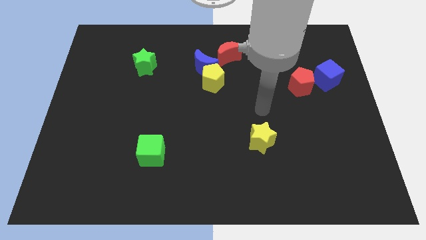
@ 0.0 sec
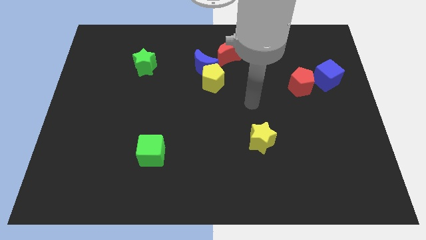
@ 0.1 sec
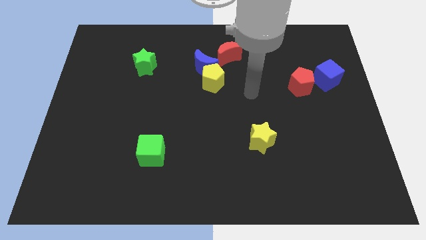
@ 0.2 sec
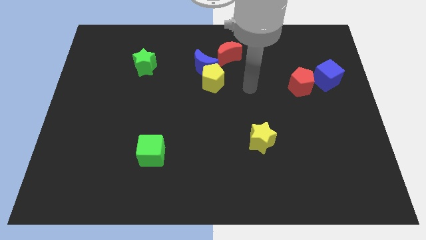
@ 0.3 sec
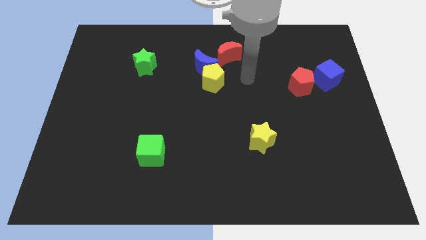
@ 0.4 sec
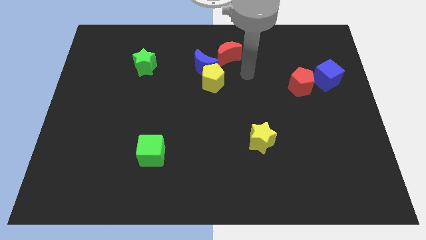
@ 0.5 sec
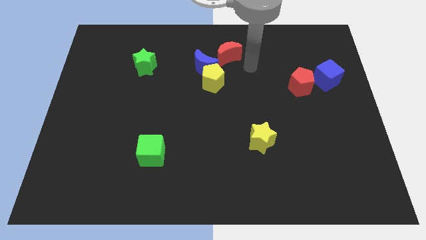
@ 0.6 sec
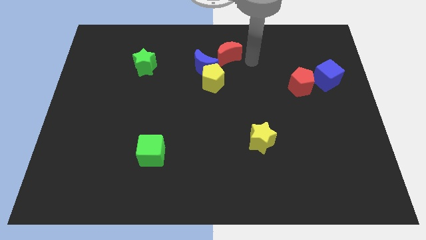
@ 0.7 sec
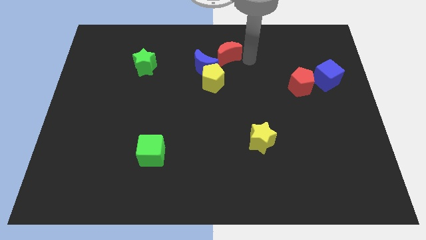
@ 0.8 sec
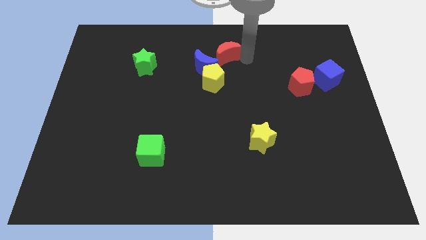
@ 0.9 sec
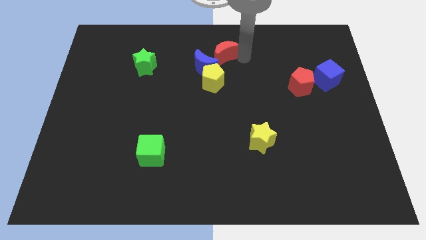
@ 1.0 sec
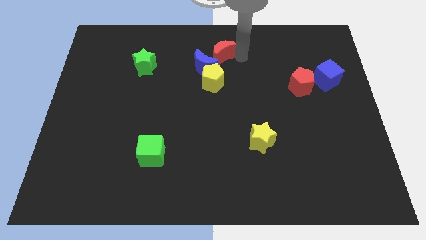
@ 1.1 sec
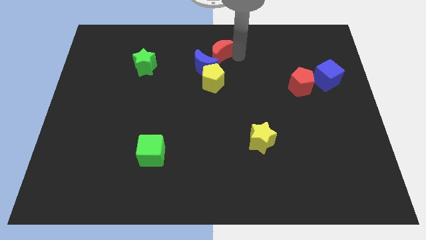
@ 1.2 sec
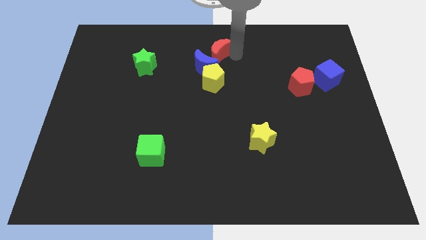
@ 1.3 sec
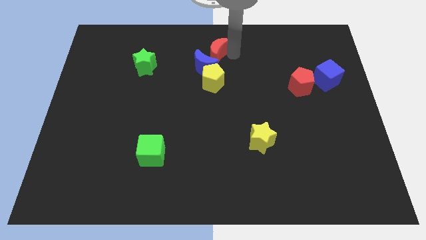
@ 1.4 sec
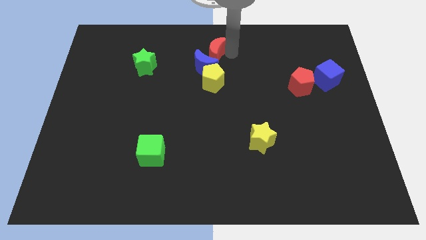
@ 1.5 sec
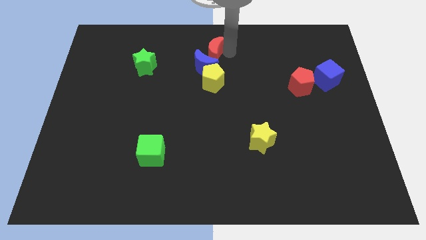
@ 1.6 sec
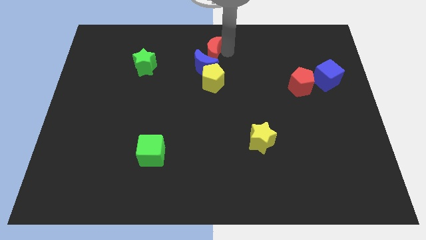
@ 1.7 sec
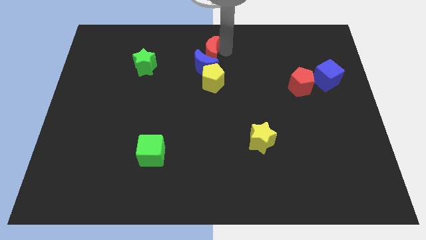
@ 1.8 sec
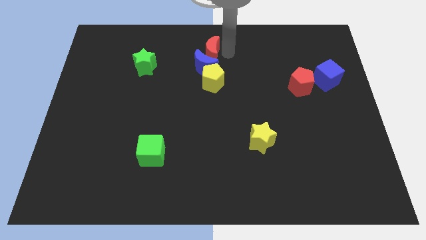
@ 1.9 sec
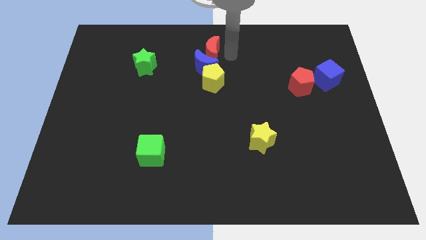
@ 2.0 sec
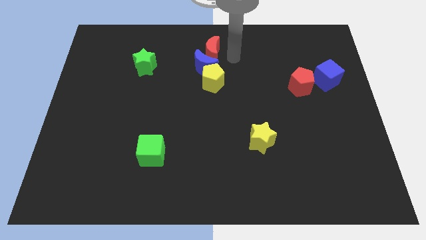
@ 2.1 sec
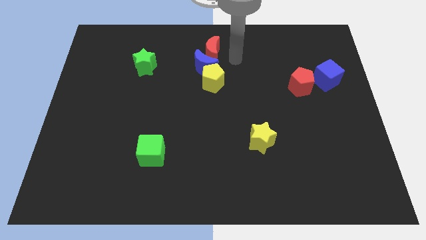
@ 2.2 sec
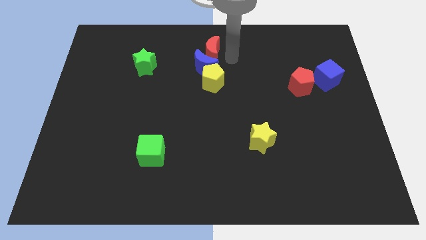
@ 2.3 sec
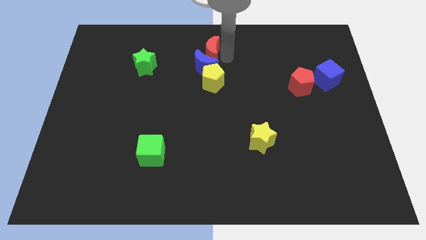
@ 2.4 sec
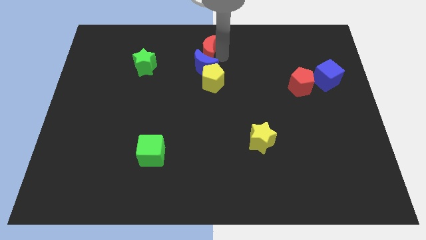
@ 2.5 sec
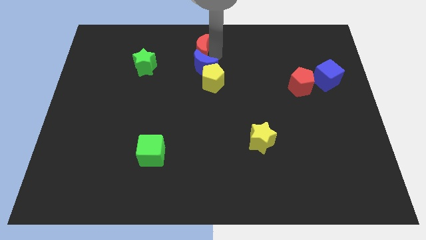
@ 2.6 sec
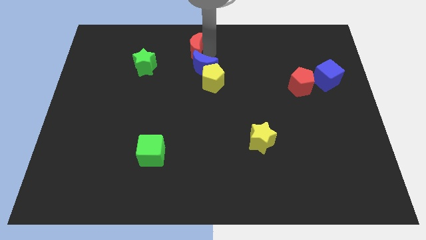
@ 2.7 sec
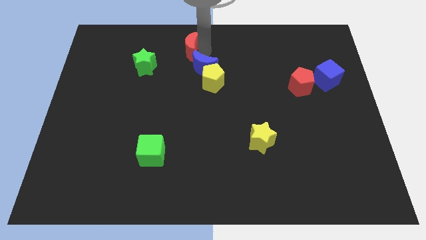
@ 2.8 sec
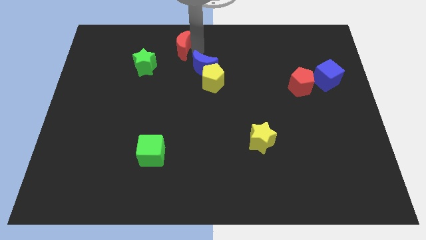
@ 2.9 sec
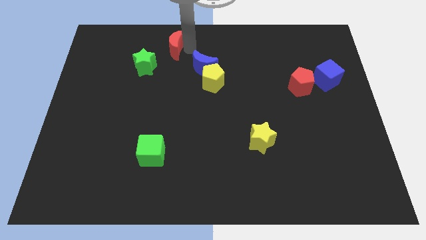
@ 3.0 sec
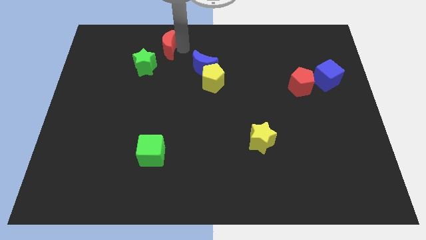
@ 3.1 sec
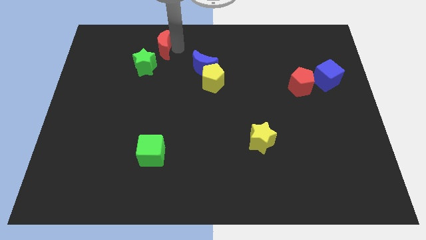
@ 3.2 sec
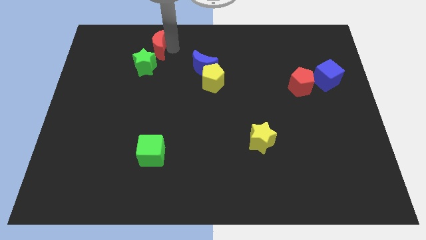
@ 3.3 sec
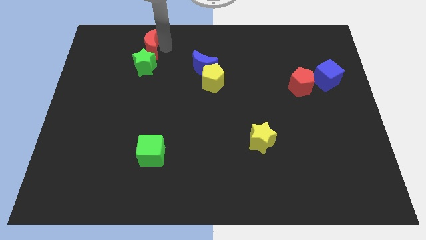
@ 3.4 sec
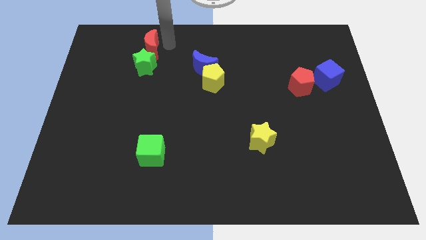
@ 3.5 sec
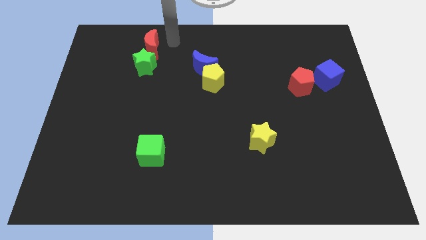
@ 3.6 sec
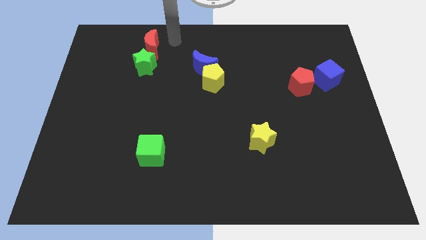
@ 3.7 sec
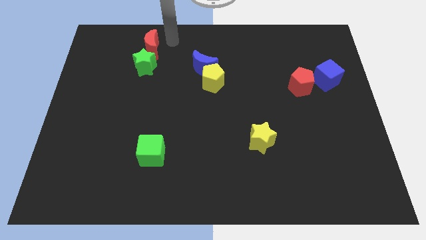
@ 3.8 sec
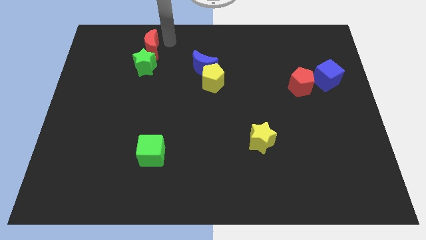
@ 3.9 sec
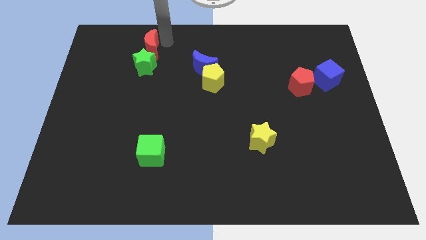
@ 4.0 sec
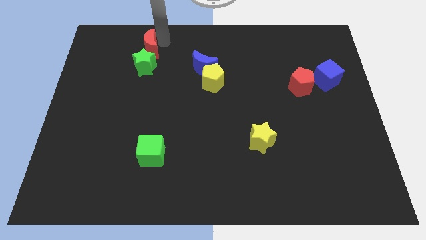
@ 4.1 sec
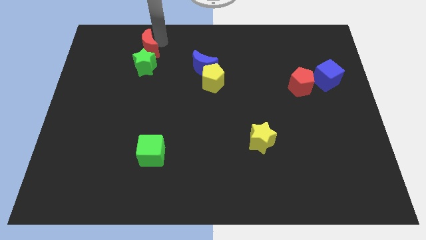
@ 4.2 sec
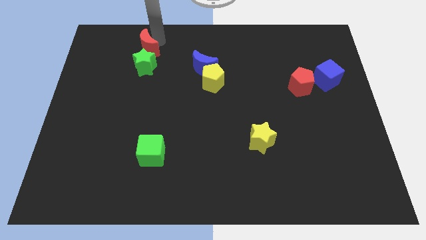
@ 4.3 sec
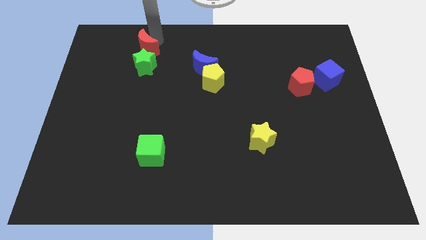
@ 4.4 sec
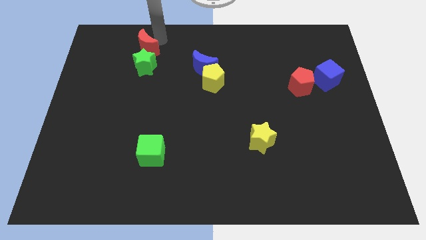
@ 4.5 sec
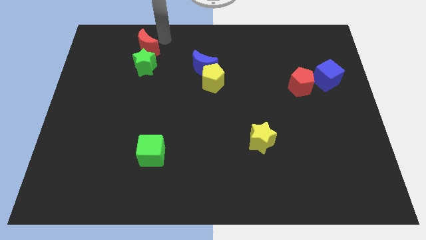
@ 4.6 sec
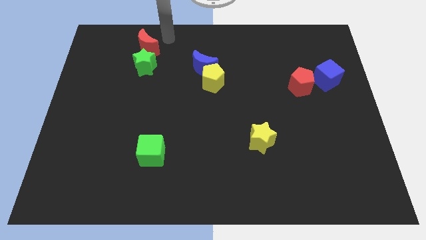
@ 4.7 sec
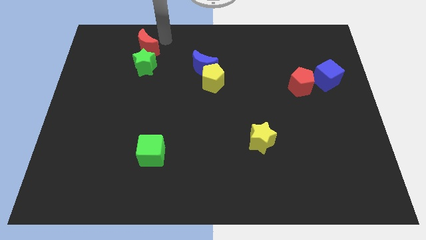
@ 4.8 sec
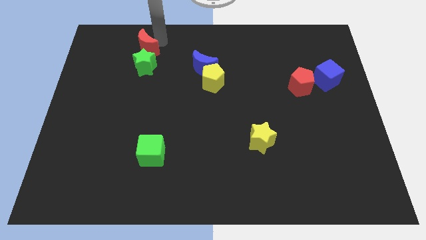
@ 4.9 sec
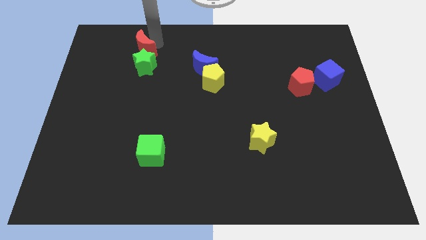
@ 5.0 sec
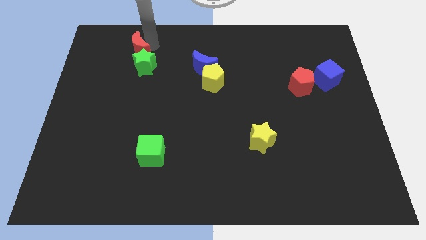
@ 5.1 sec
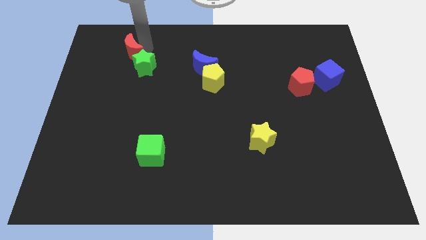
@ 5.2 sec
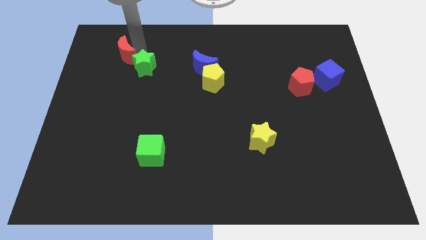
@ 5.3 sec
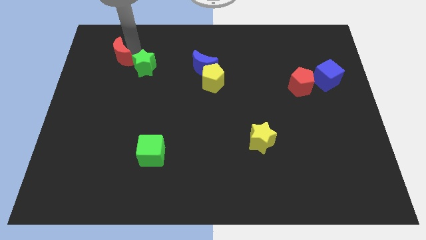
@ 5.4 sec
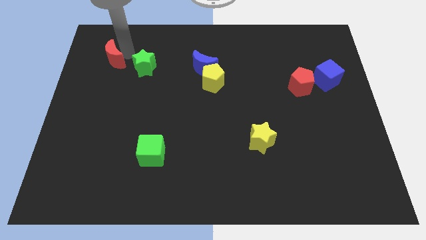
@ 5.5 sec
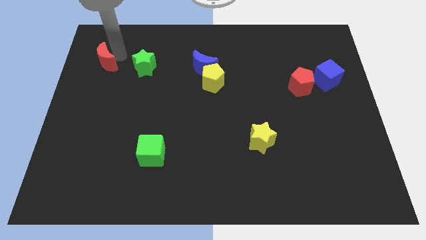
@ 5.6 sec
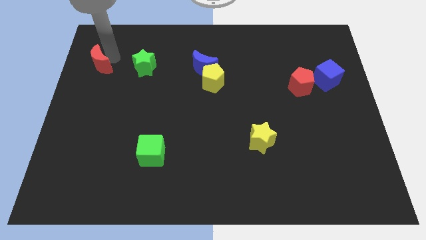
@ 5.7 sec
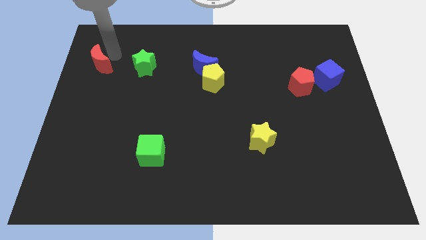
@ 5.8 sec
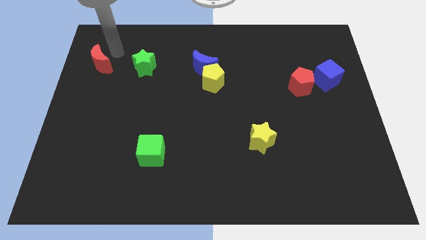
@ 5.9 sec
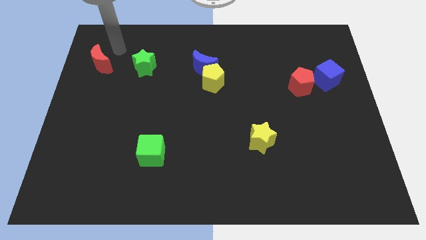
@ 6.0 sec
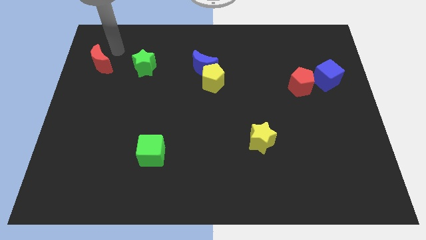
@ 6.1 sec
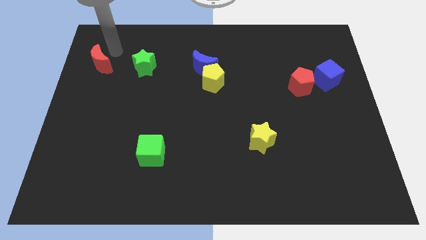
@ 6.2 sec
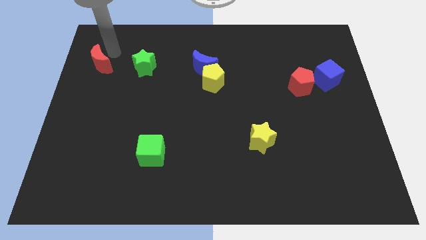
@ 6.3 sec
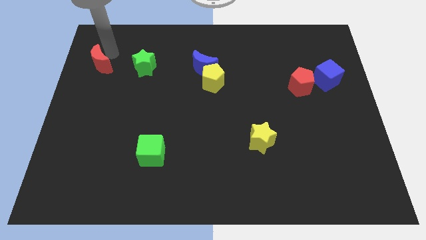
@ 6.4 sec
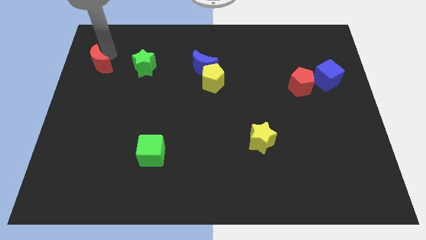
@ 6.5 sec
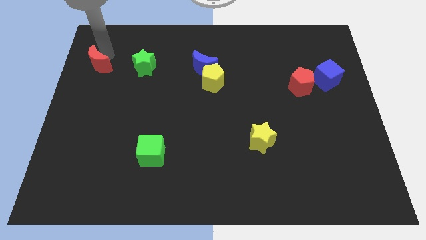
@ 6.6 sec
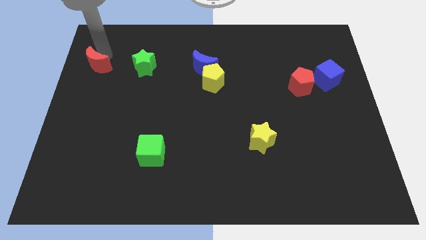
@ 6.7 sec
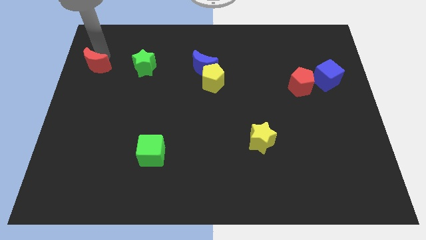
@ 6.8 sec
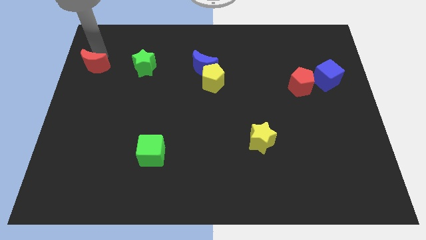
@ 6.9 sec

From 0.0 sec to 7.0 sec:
slide the red moon to the left side of the board
